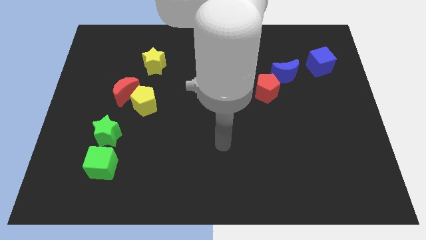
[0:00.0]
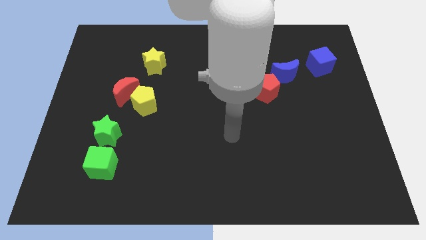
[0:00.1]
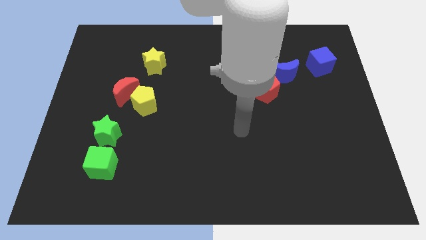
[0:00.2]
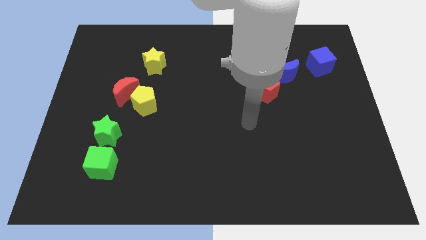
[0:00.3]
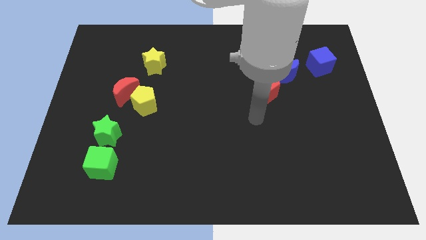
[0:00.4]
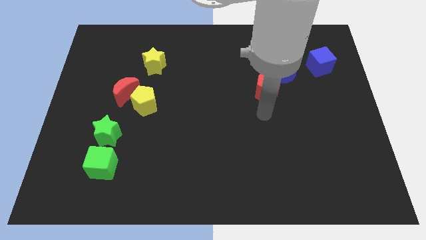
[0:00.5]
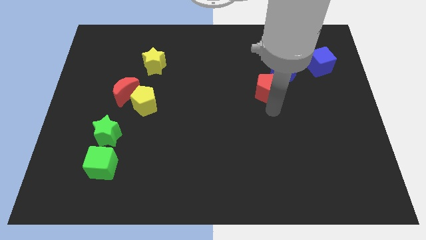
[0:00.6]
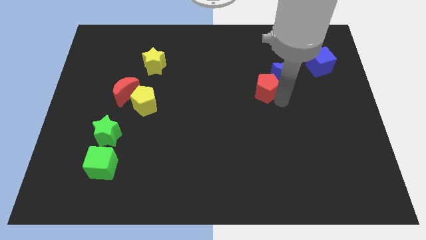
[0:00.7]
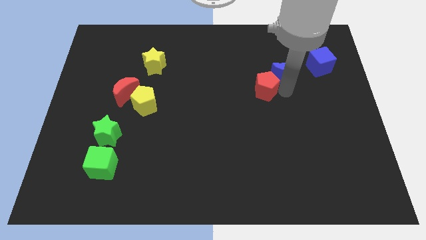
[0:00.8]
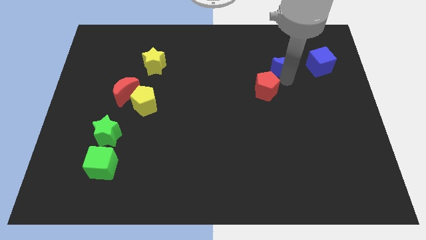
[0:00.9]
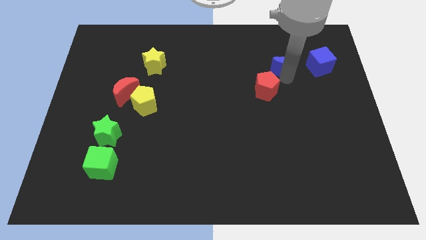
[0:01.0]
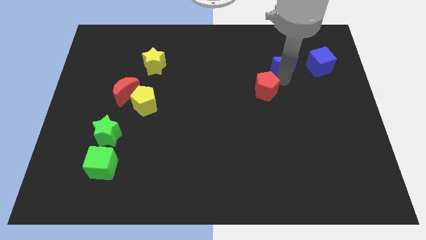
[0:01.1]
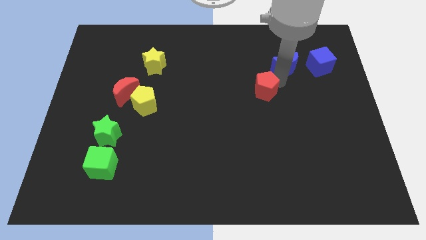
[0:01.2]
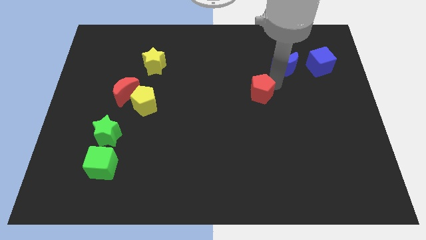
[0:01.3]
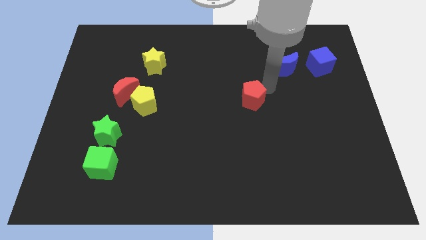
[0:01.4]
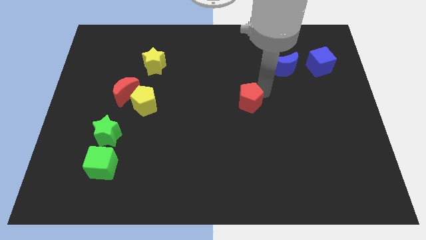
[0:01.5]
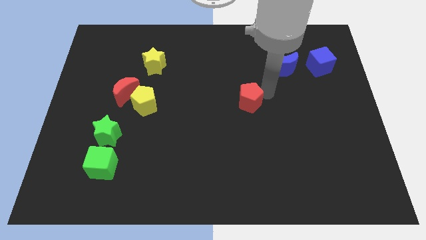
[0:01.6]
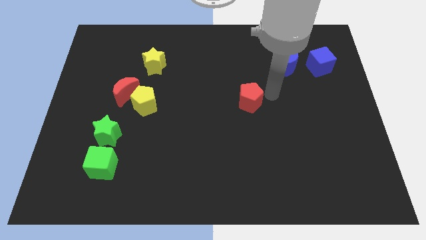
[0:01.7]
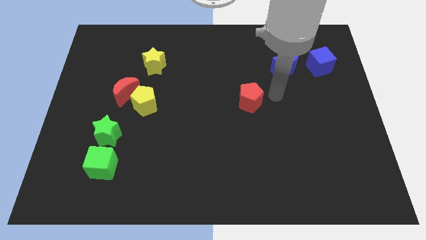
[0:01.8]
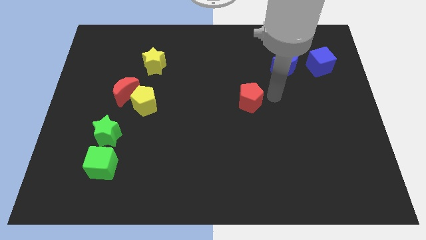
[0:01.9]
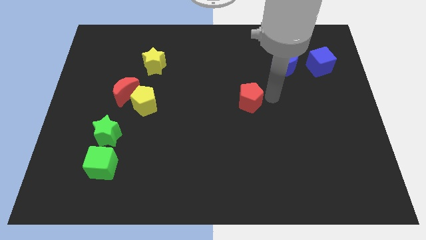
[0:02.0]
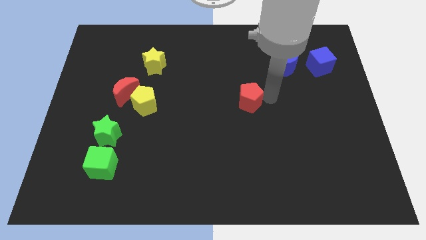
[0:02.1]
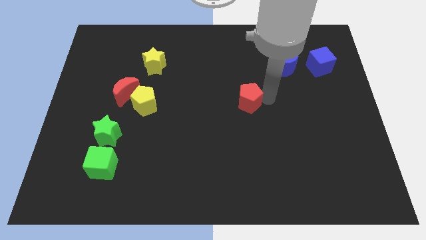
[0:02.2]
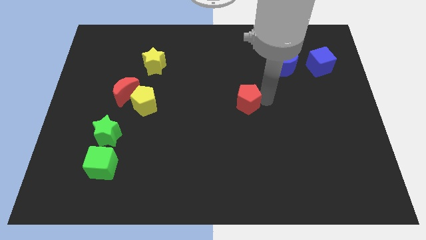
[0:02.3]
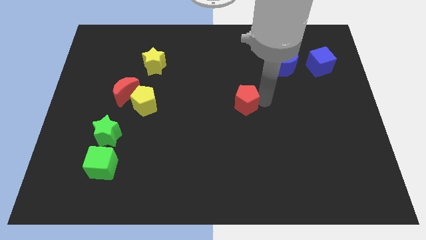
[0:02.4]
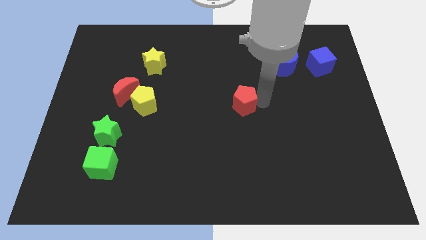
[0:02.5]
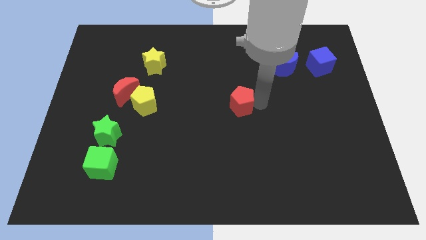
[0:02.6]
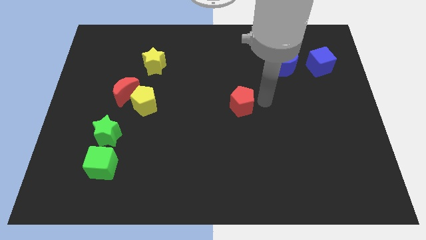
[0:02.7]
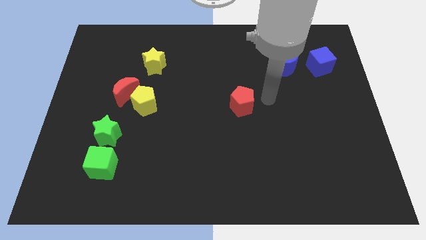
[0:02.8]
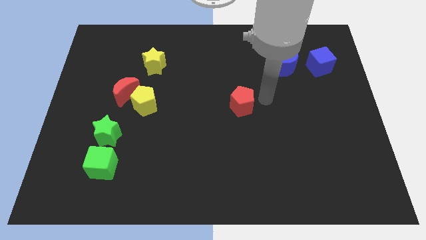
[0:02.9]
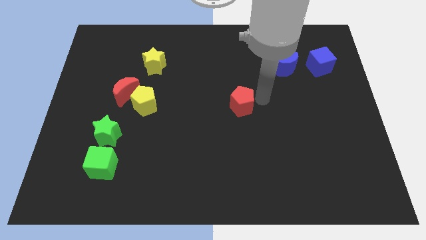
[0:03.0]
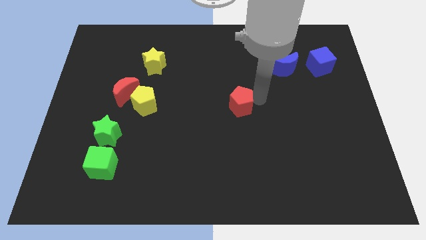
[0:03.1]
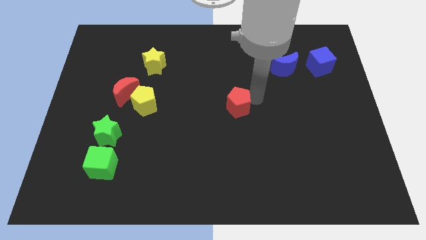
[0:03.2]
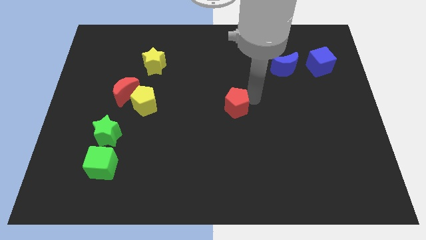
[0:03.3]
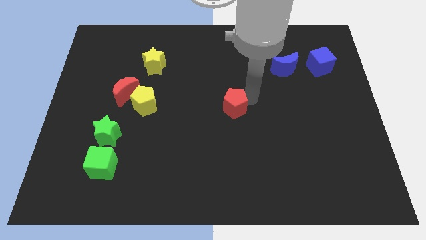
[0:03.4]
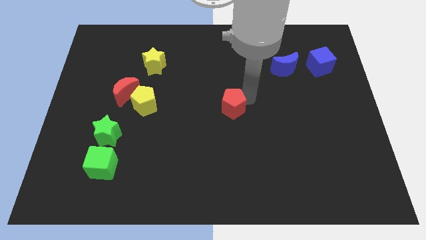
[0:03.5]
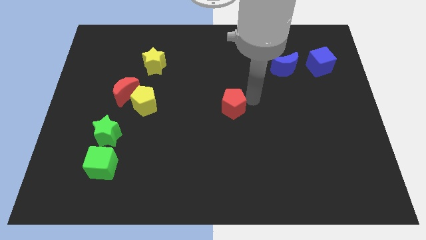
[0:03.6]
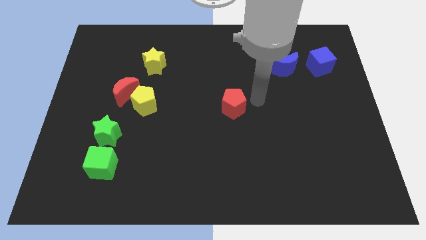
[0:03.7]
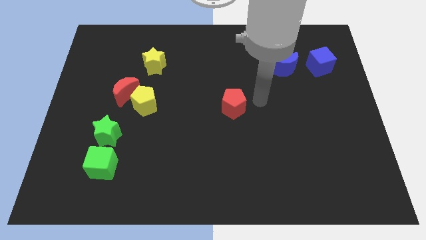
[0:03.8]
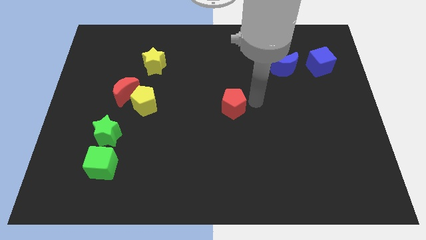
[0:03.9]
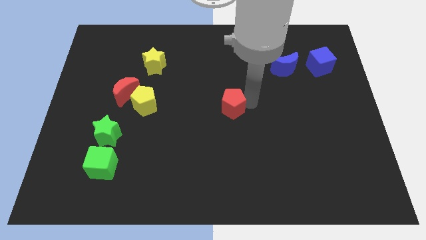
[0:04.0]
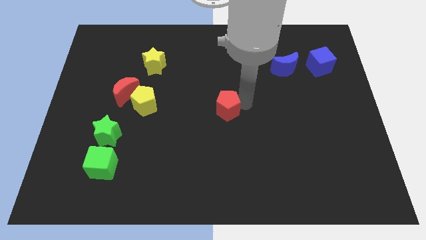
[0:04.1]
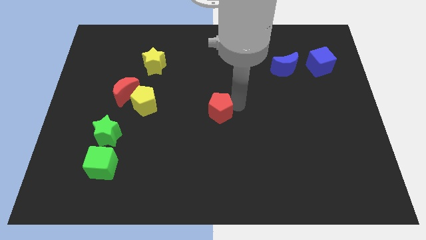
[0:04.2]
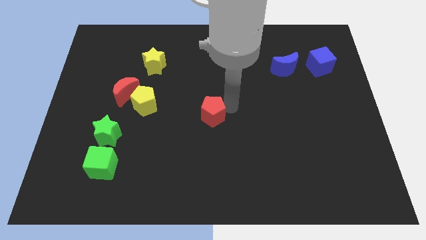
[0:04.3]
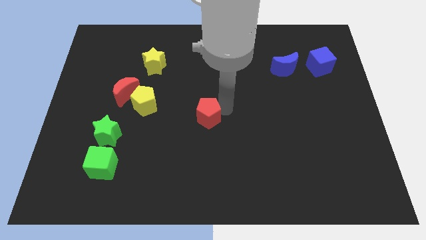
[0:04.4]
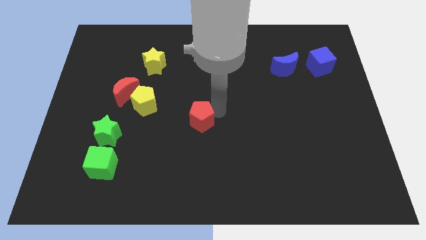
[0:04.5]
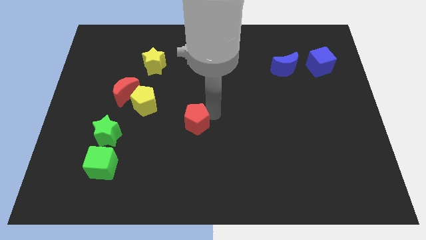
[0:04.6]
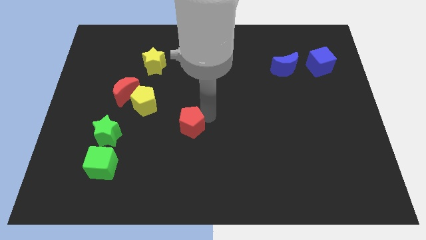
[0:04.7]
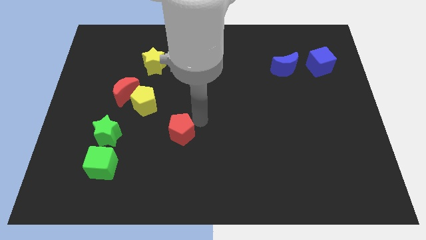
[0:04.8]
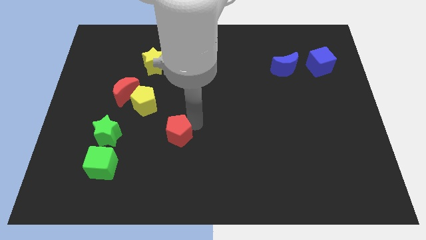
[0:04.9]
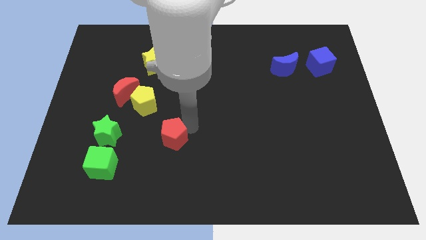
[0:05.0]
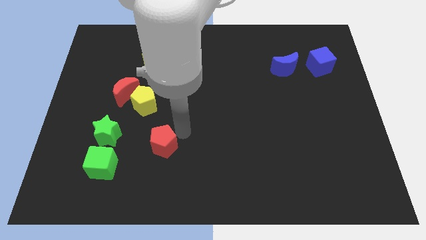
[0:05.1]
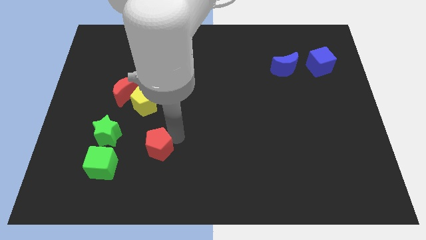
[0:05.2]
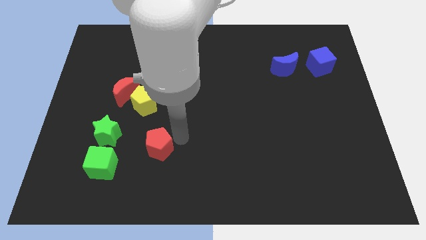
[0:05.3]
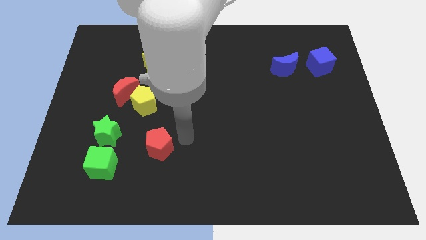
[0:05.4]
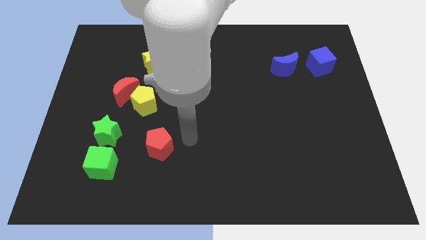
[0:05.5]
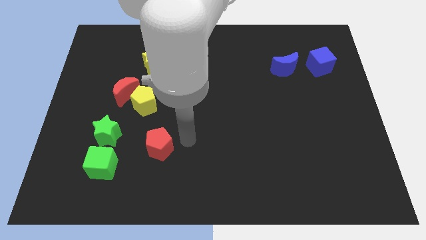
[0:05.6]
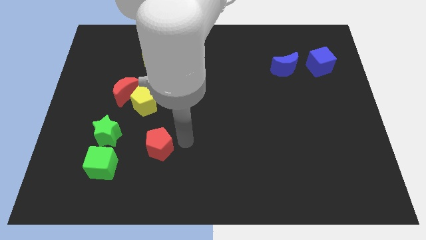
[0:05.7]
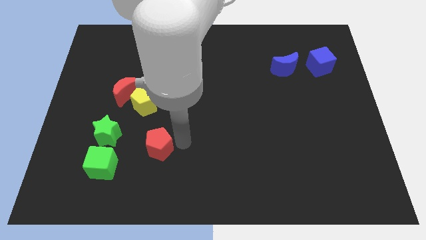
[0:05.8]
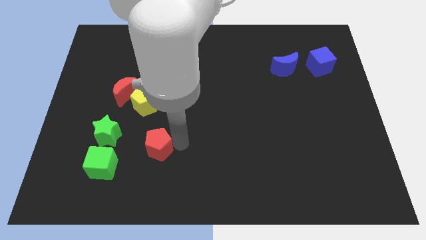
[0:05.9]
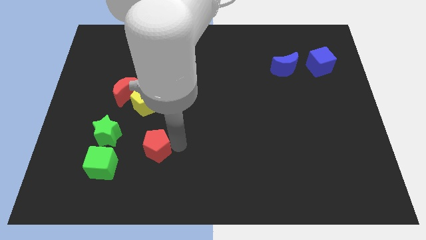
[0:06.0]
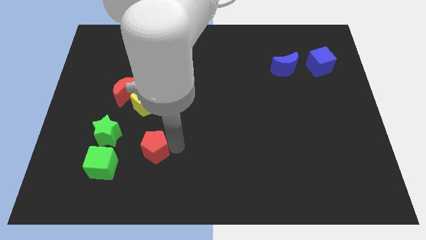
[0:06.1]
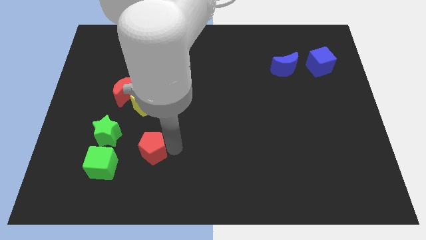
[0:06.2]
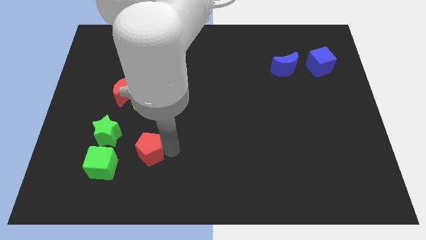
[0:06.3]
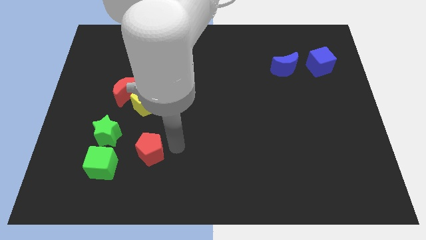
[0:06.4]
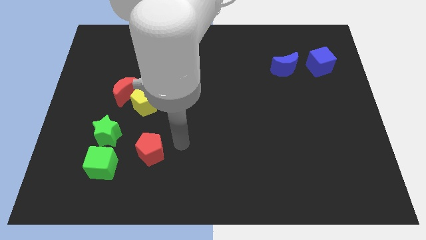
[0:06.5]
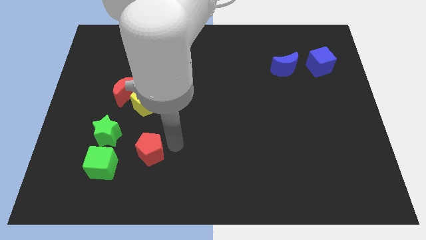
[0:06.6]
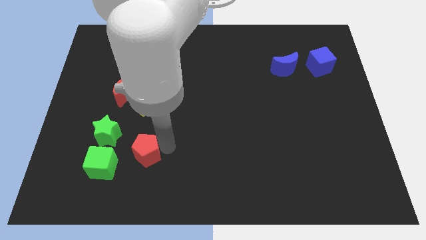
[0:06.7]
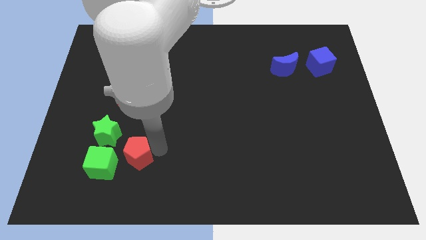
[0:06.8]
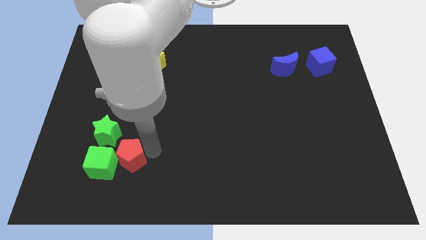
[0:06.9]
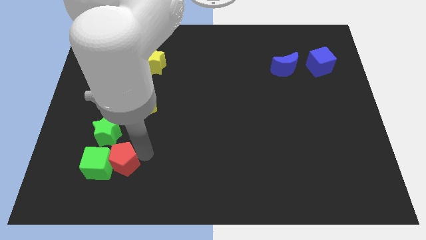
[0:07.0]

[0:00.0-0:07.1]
move the red pentagon to the green cube
